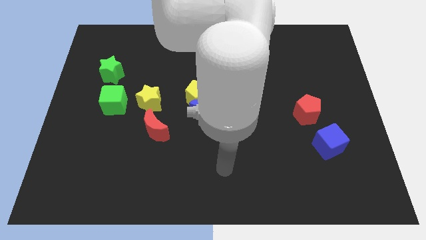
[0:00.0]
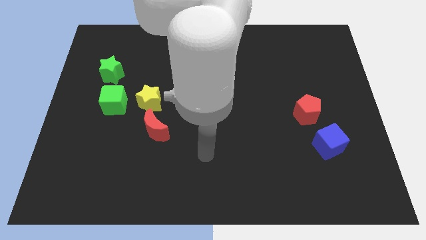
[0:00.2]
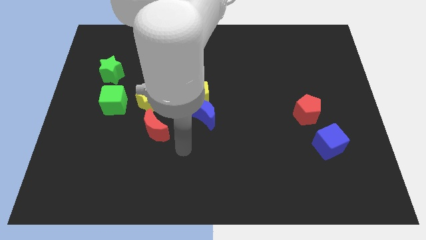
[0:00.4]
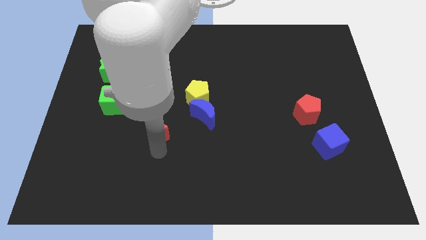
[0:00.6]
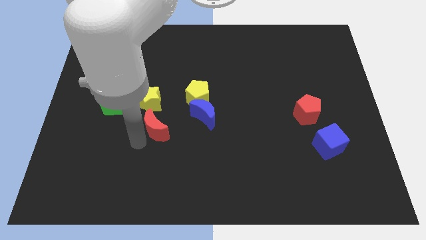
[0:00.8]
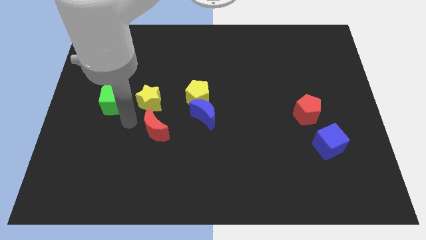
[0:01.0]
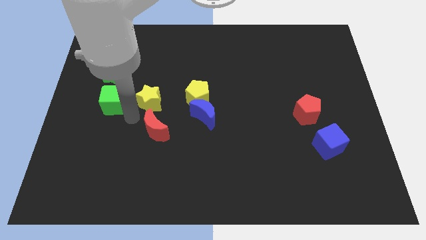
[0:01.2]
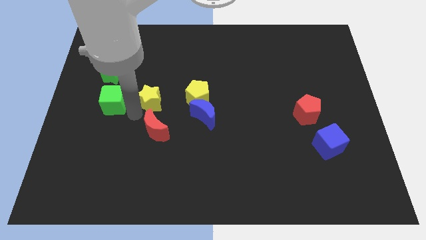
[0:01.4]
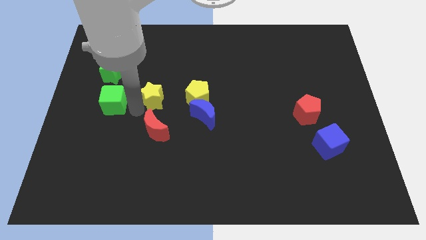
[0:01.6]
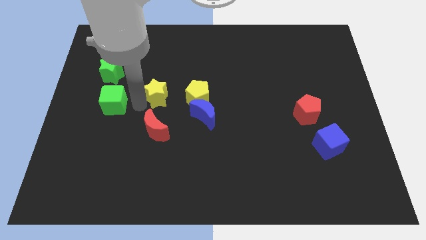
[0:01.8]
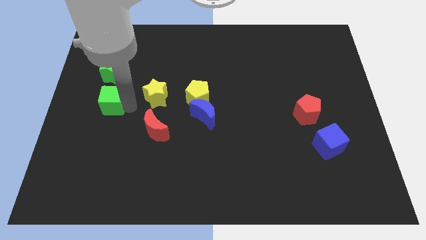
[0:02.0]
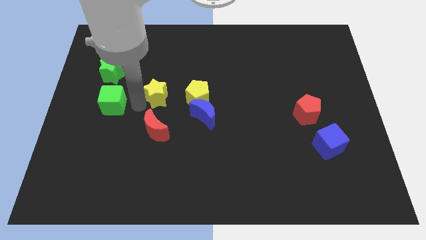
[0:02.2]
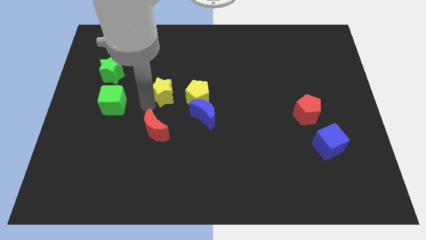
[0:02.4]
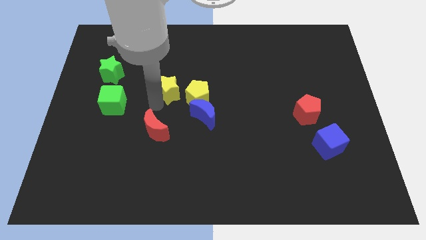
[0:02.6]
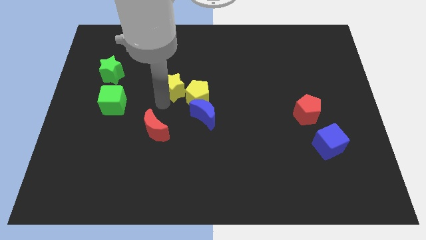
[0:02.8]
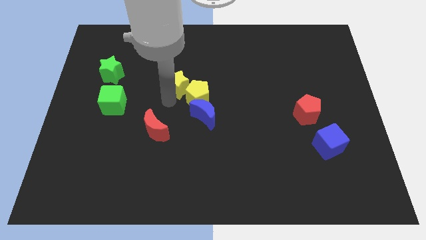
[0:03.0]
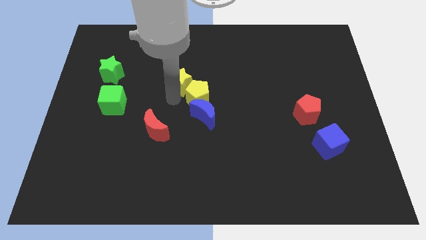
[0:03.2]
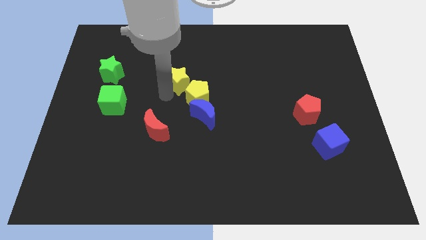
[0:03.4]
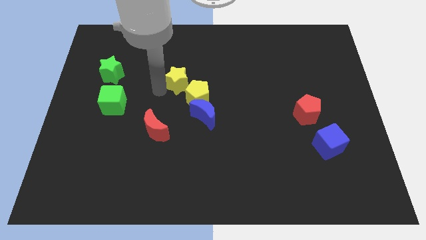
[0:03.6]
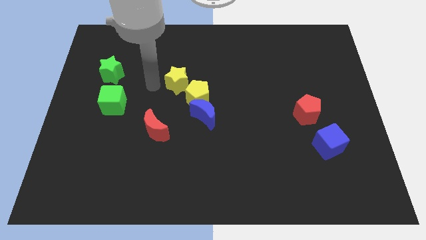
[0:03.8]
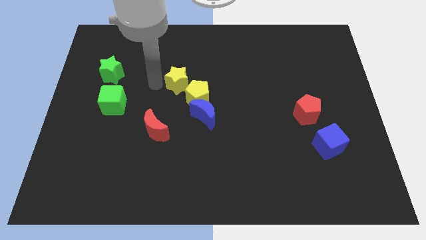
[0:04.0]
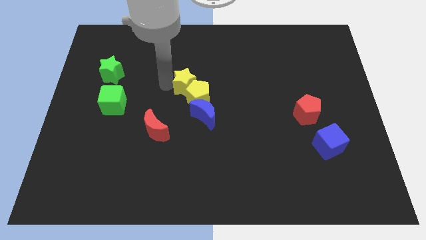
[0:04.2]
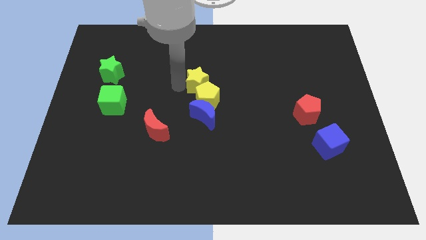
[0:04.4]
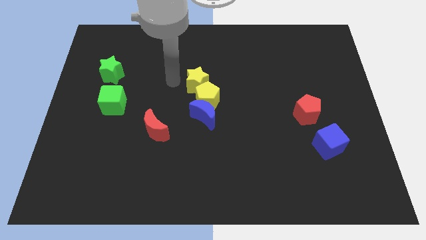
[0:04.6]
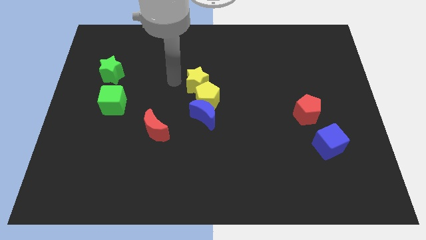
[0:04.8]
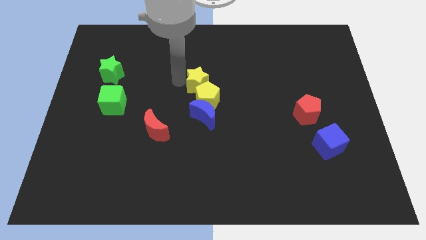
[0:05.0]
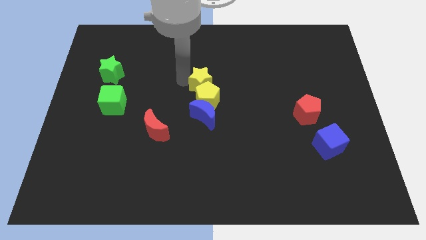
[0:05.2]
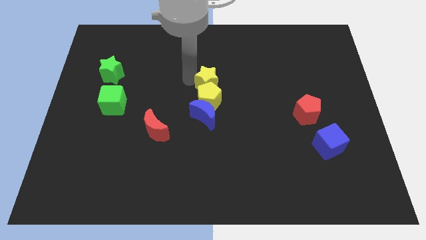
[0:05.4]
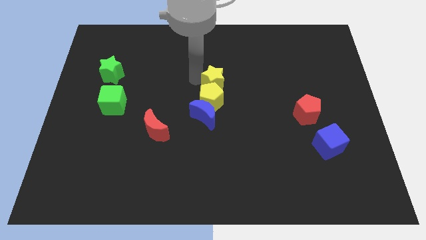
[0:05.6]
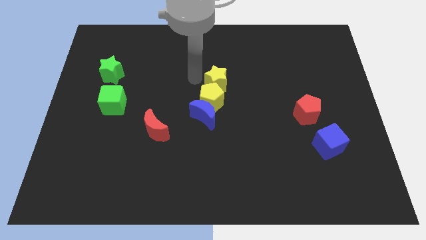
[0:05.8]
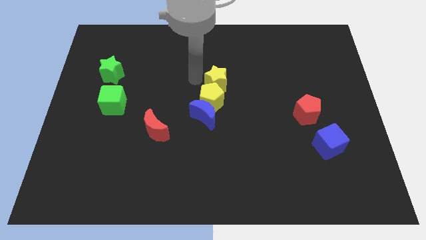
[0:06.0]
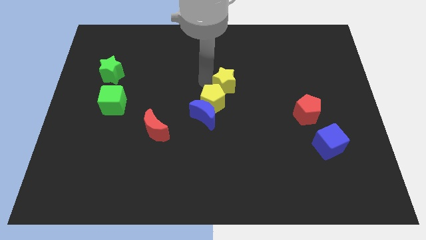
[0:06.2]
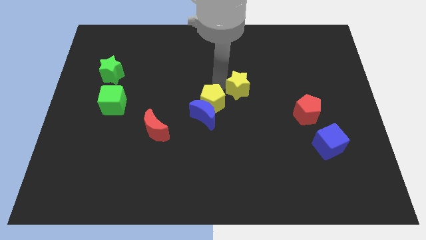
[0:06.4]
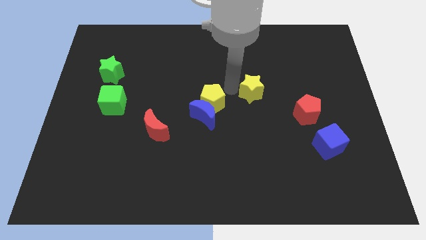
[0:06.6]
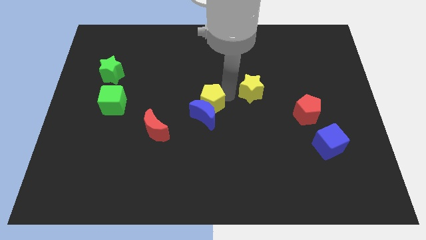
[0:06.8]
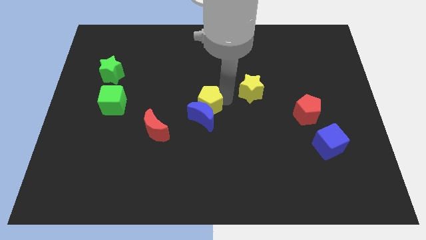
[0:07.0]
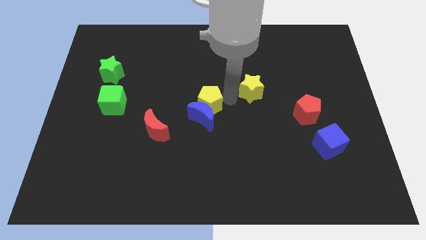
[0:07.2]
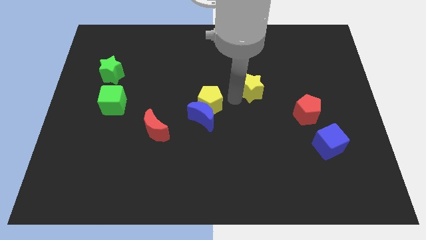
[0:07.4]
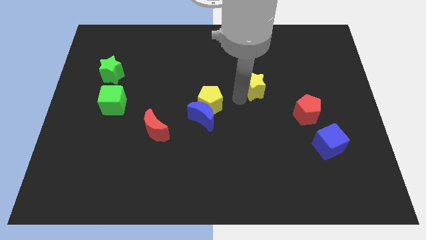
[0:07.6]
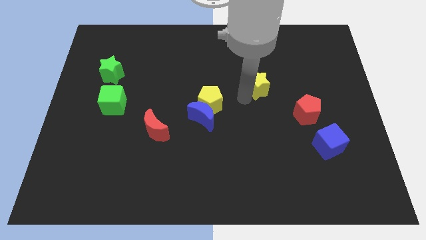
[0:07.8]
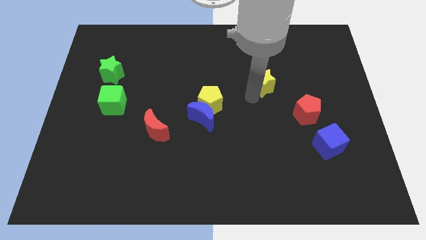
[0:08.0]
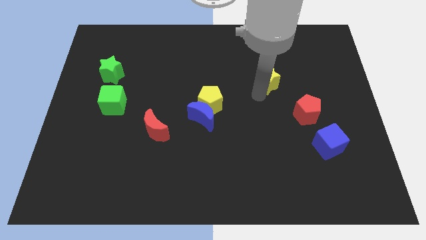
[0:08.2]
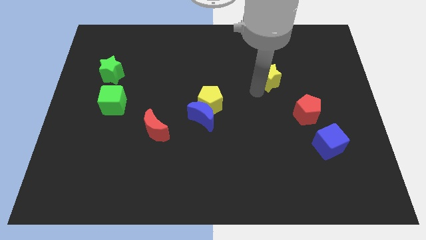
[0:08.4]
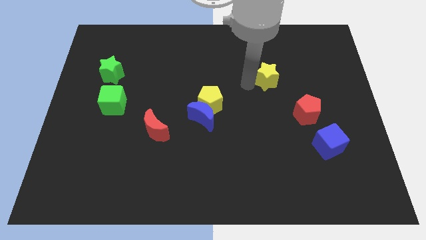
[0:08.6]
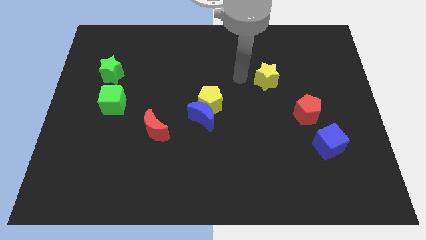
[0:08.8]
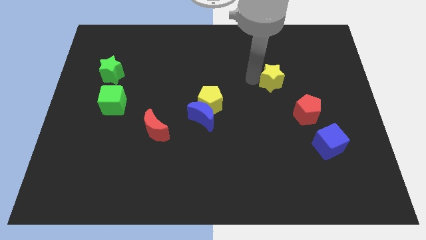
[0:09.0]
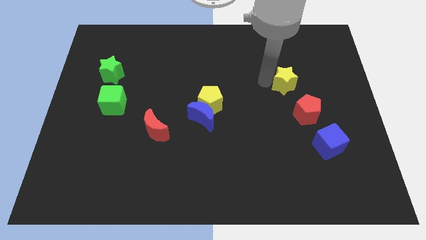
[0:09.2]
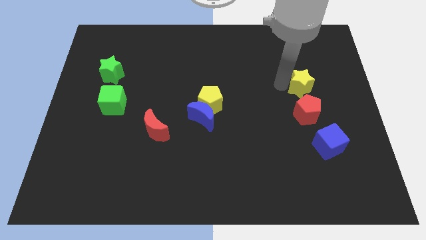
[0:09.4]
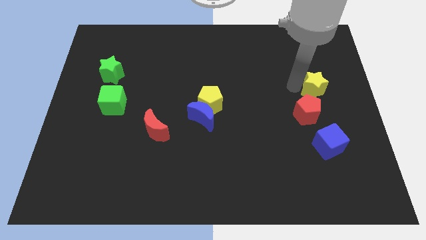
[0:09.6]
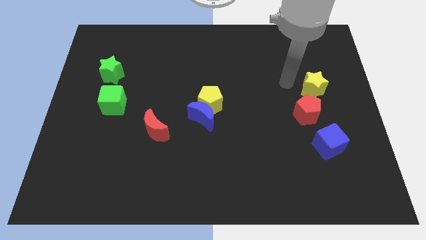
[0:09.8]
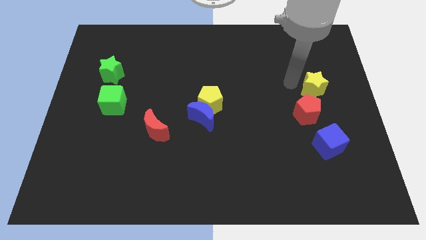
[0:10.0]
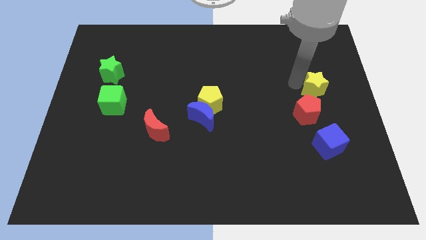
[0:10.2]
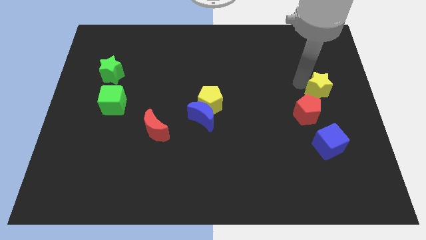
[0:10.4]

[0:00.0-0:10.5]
push the yellow star to the right side
